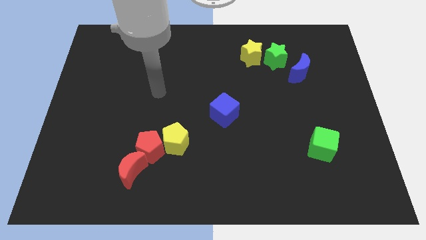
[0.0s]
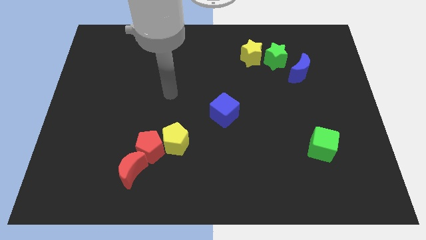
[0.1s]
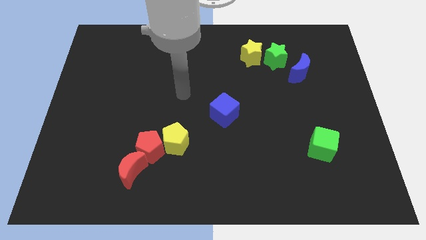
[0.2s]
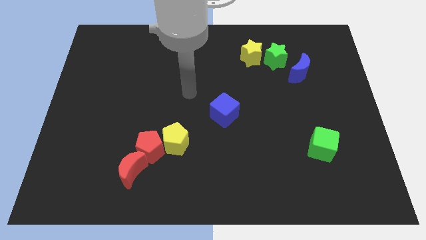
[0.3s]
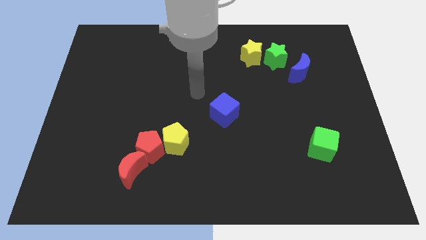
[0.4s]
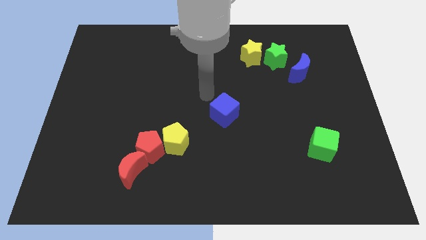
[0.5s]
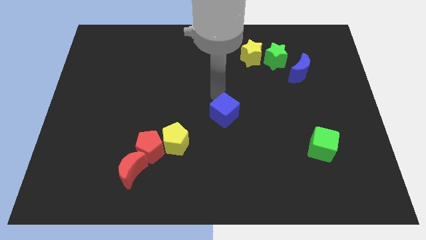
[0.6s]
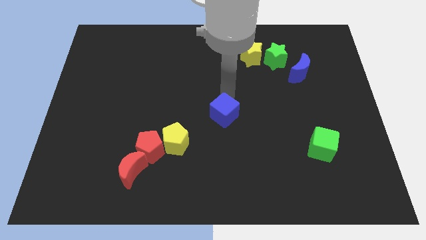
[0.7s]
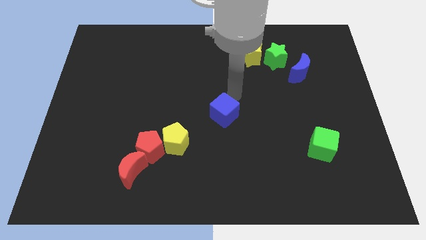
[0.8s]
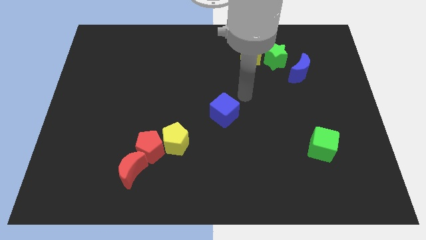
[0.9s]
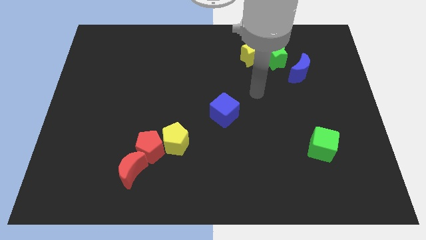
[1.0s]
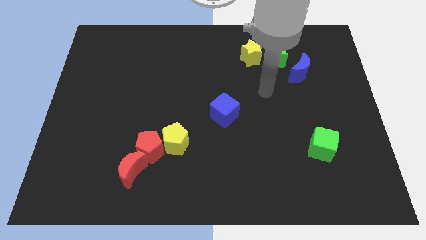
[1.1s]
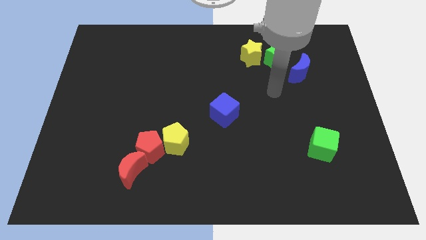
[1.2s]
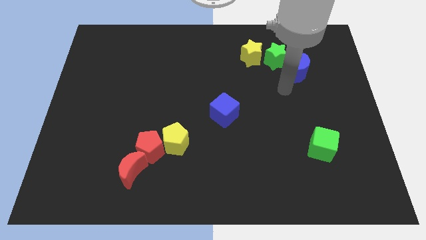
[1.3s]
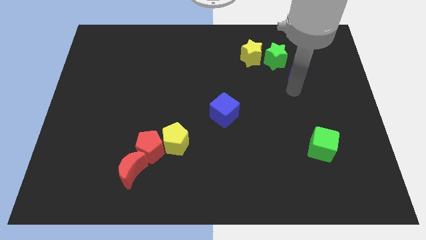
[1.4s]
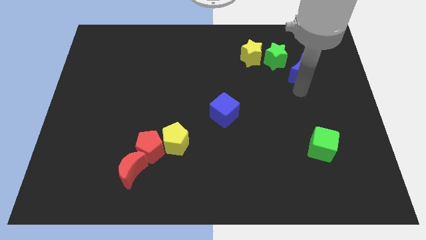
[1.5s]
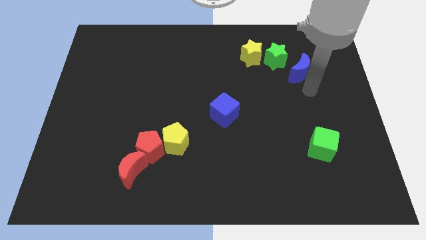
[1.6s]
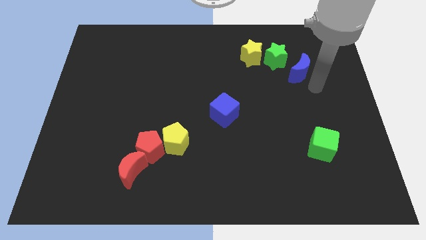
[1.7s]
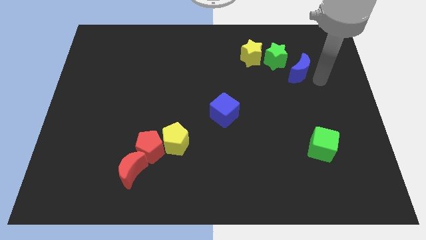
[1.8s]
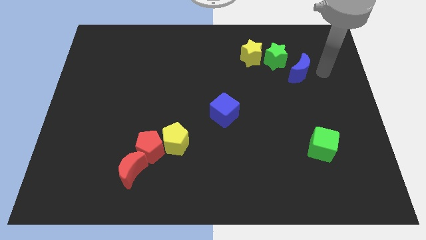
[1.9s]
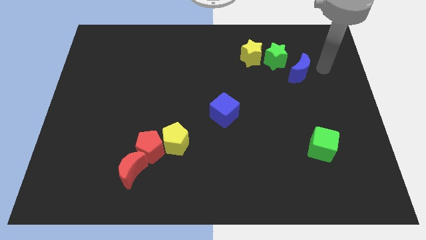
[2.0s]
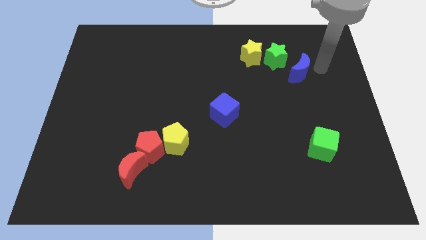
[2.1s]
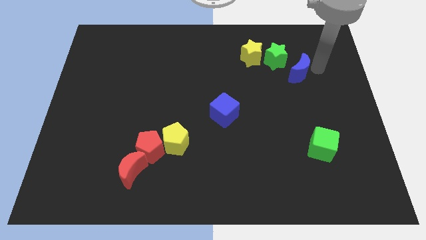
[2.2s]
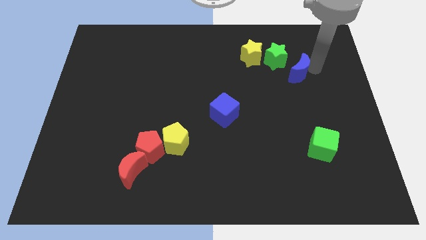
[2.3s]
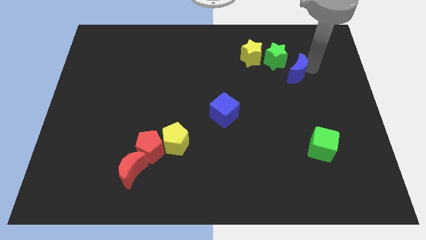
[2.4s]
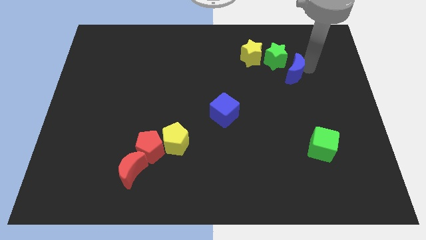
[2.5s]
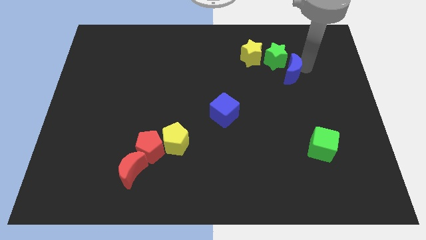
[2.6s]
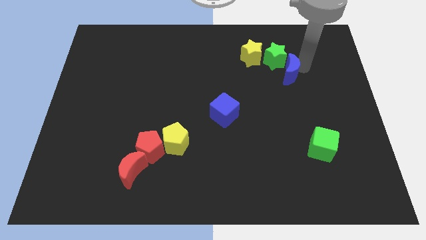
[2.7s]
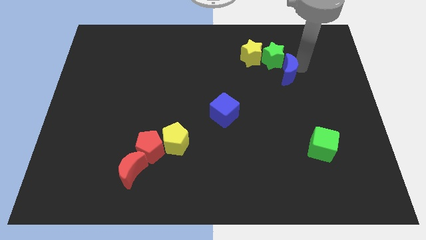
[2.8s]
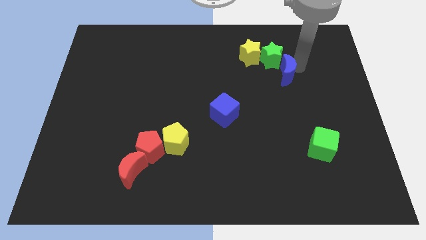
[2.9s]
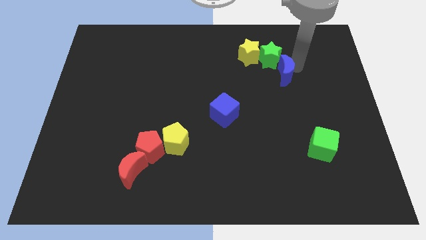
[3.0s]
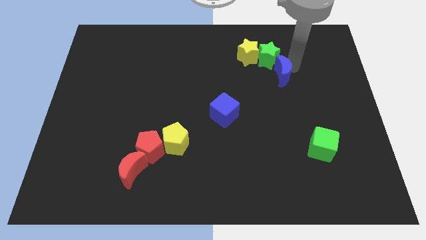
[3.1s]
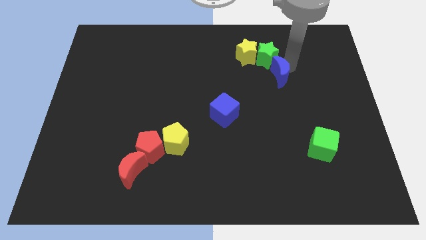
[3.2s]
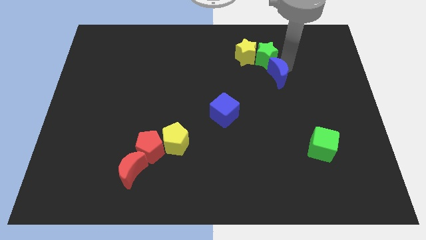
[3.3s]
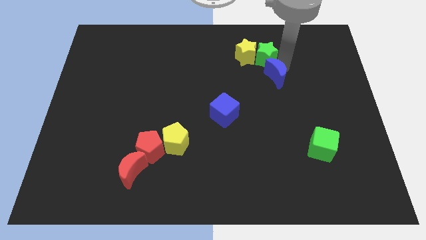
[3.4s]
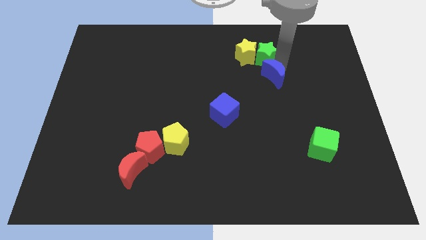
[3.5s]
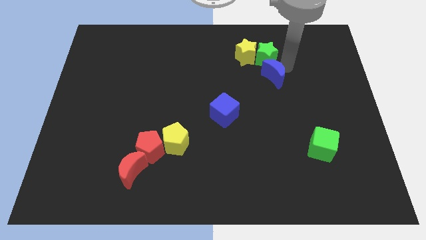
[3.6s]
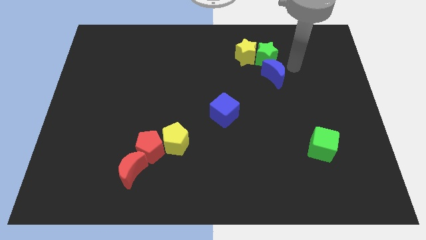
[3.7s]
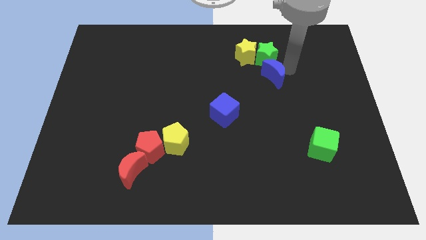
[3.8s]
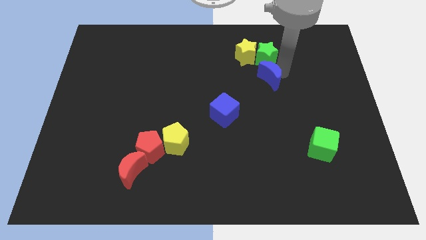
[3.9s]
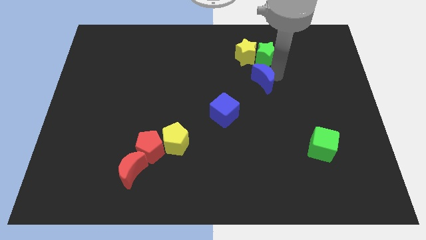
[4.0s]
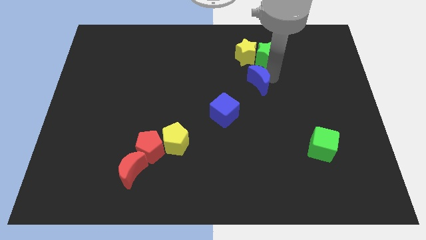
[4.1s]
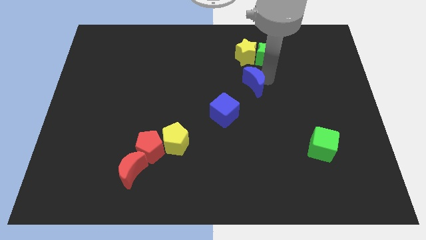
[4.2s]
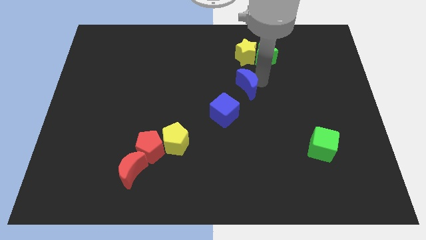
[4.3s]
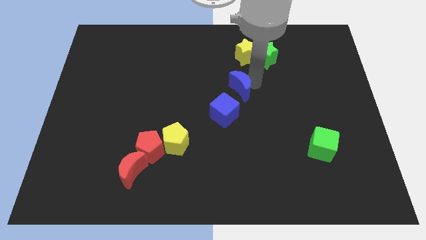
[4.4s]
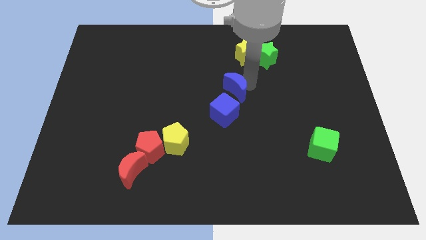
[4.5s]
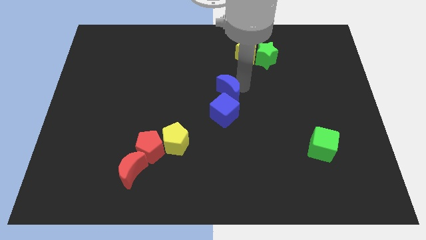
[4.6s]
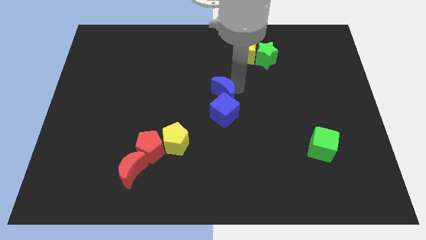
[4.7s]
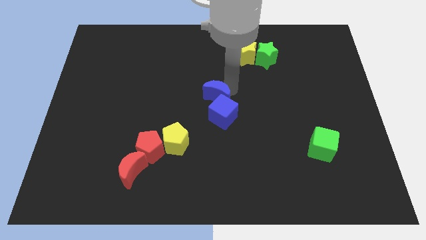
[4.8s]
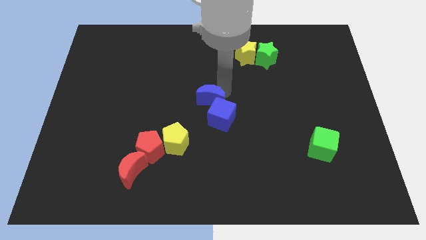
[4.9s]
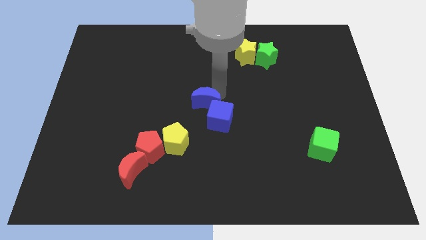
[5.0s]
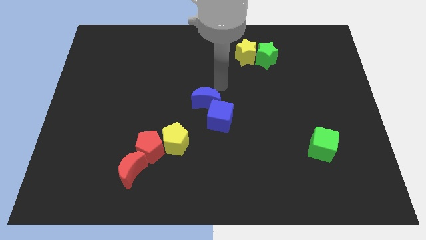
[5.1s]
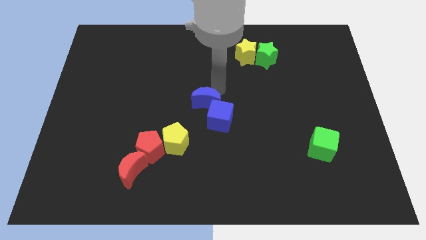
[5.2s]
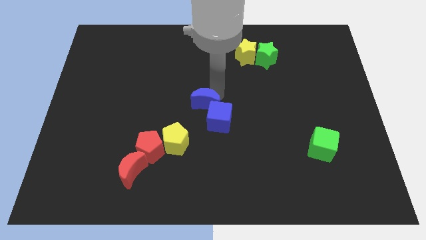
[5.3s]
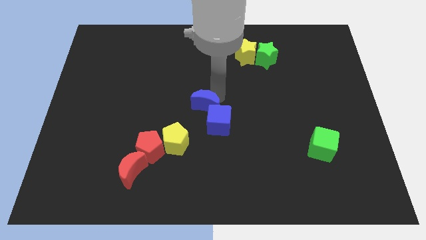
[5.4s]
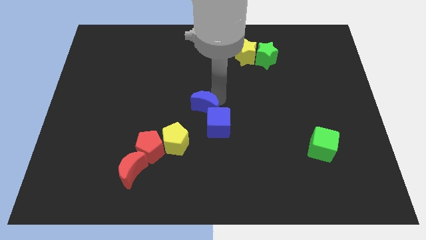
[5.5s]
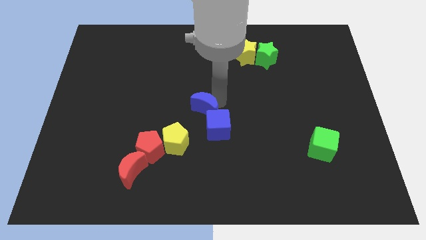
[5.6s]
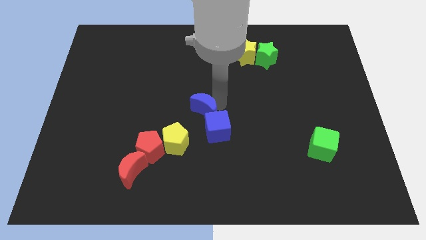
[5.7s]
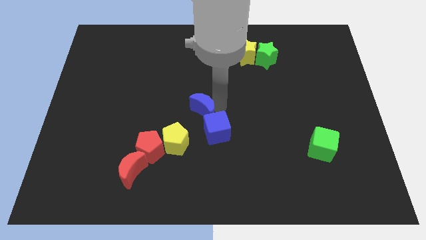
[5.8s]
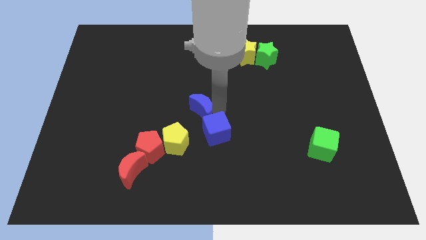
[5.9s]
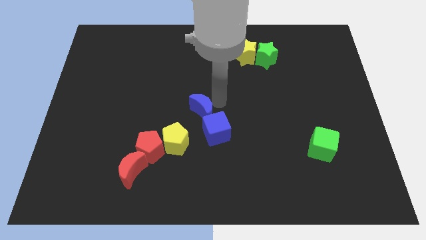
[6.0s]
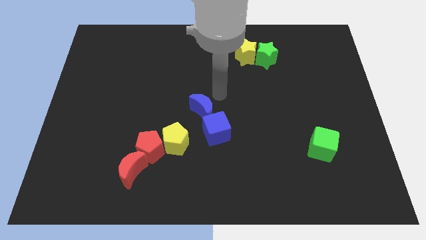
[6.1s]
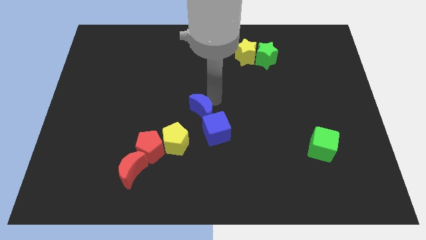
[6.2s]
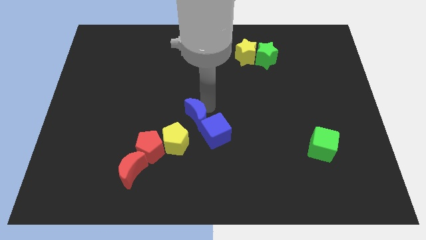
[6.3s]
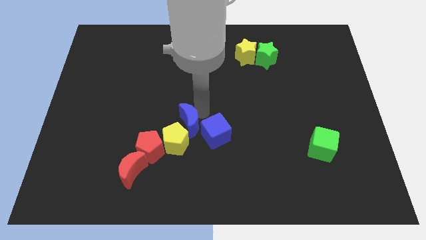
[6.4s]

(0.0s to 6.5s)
push the blue moon to the yellow pentagon

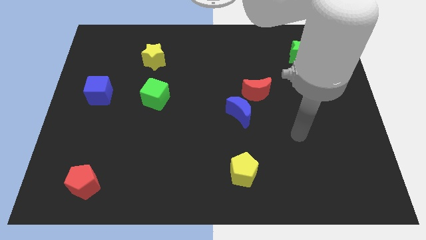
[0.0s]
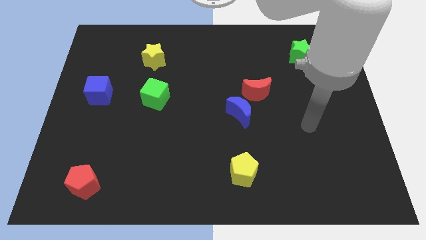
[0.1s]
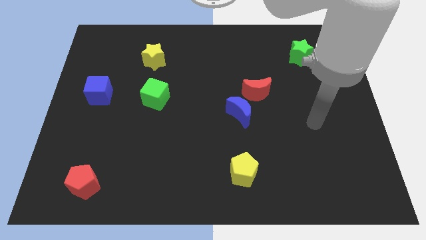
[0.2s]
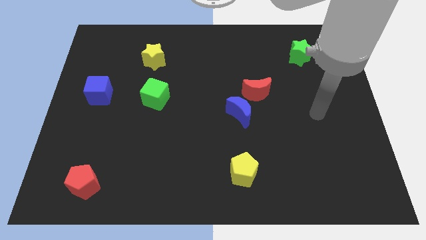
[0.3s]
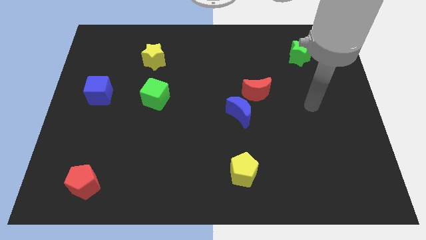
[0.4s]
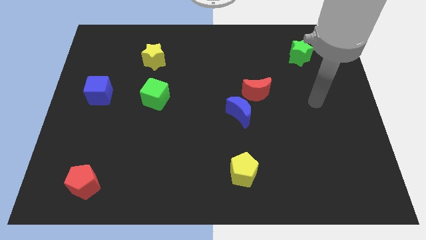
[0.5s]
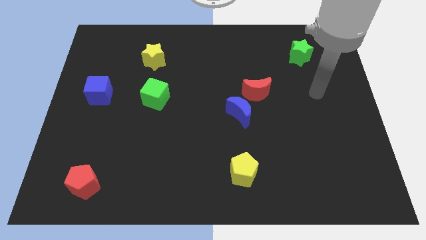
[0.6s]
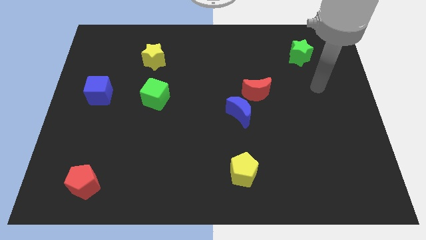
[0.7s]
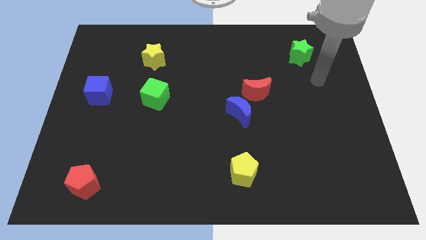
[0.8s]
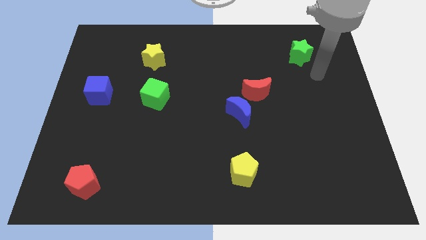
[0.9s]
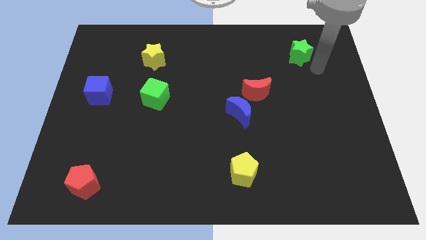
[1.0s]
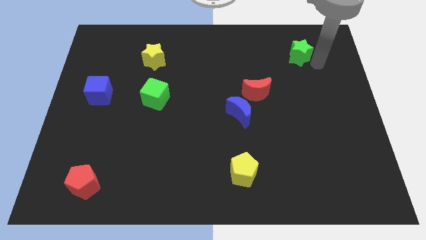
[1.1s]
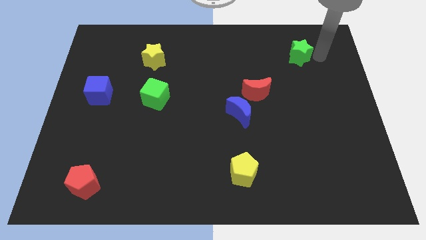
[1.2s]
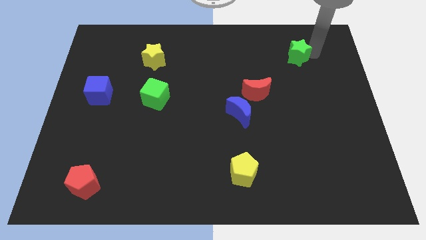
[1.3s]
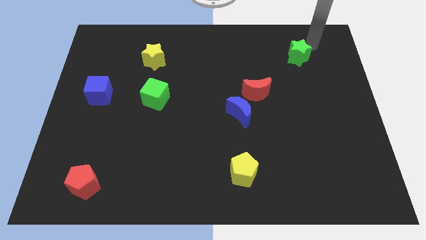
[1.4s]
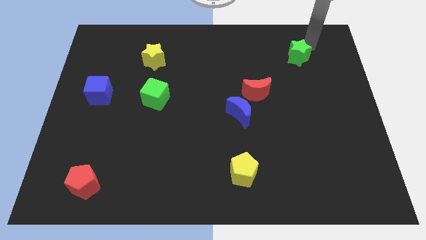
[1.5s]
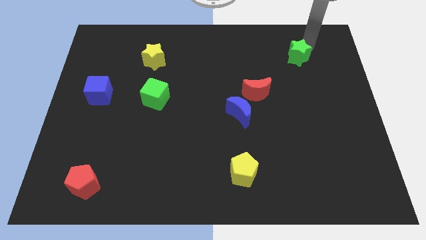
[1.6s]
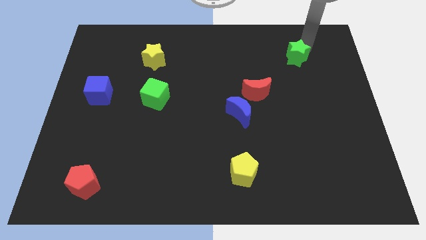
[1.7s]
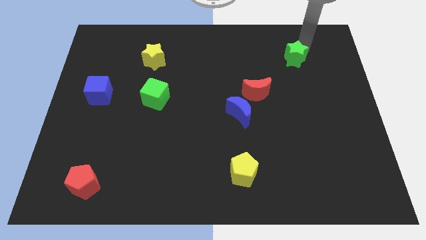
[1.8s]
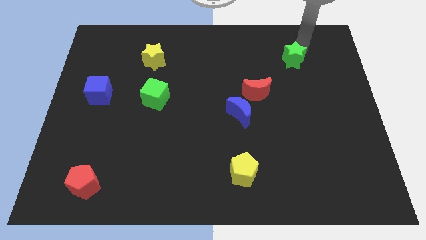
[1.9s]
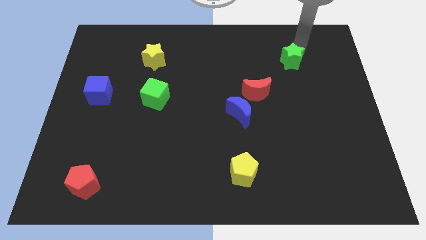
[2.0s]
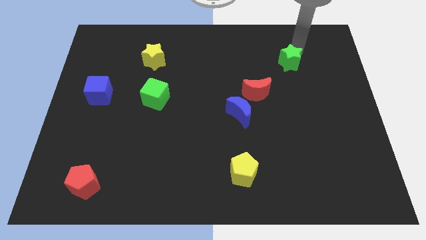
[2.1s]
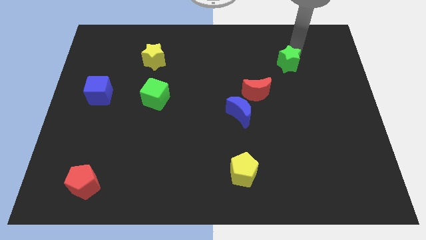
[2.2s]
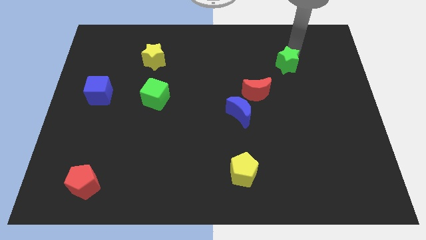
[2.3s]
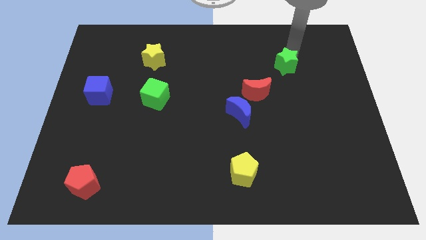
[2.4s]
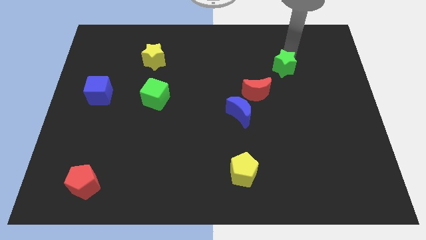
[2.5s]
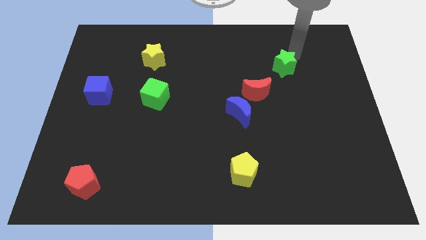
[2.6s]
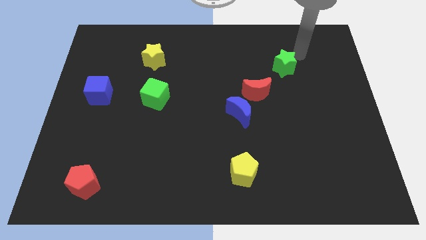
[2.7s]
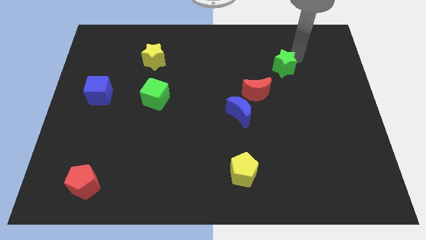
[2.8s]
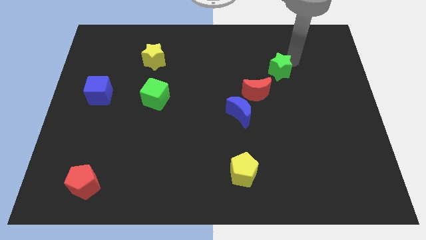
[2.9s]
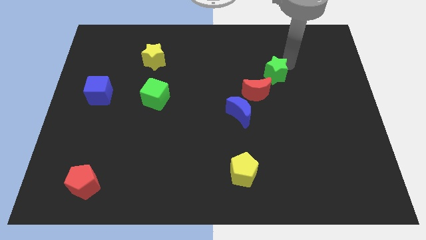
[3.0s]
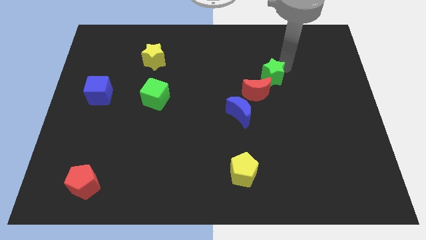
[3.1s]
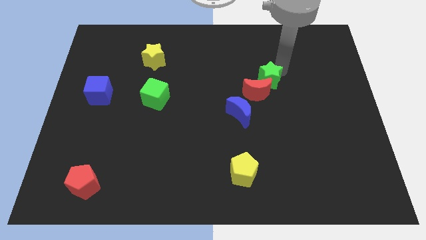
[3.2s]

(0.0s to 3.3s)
move the green star next to the red moon
